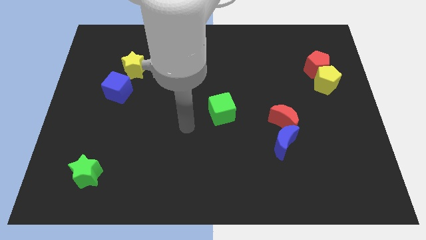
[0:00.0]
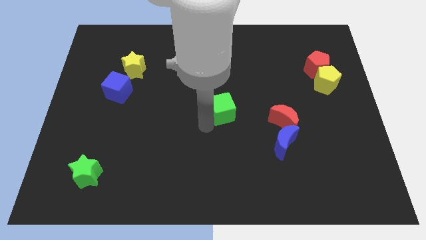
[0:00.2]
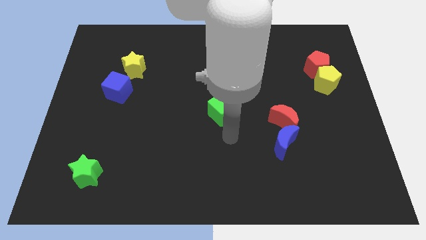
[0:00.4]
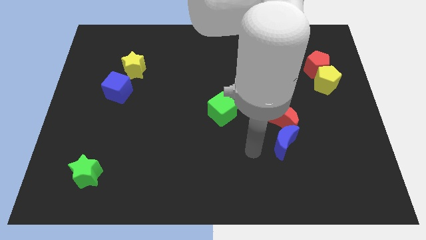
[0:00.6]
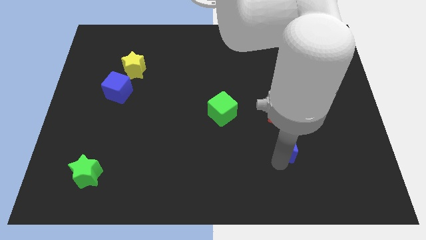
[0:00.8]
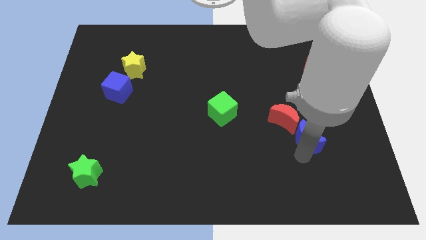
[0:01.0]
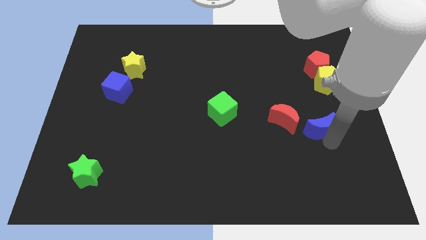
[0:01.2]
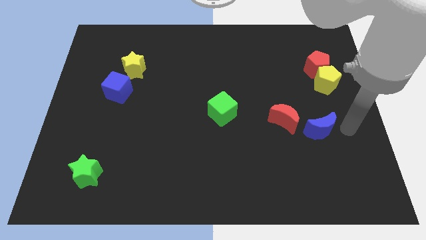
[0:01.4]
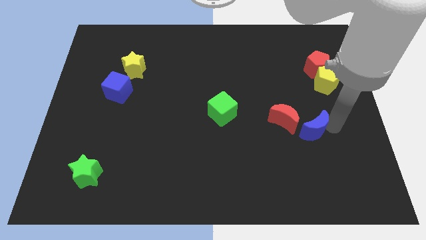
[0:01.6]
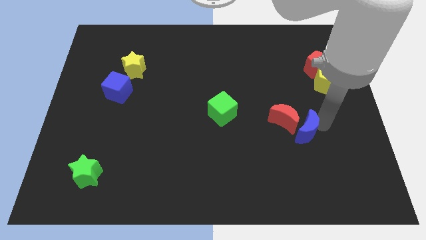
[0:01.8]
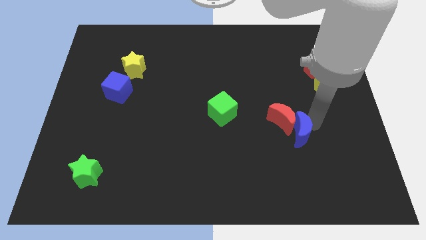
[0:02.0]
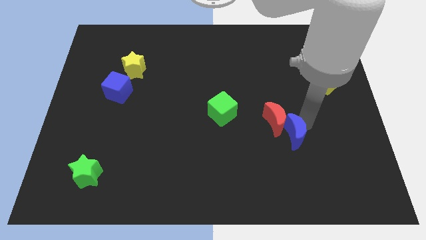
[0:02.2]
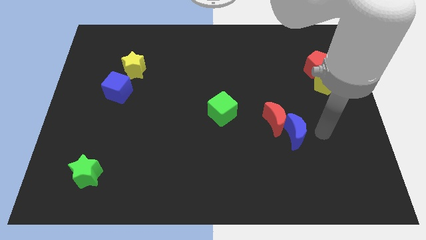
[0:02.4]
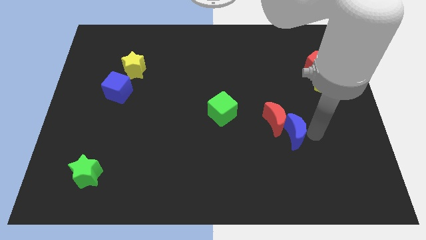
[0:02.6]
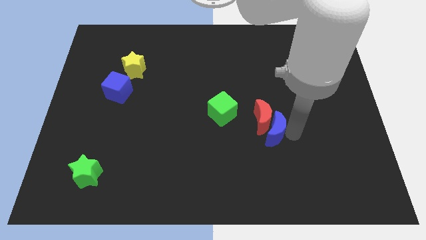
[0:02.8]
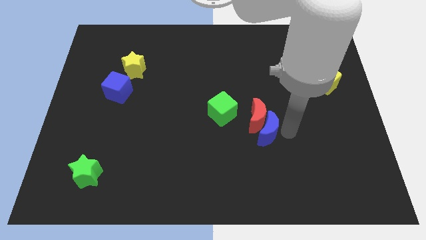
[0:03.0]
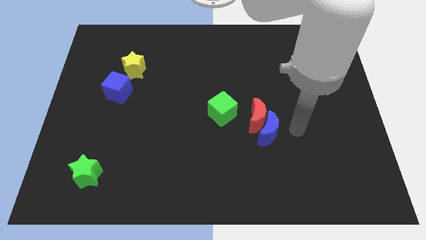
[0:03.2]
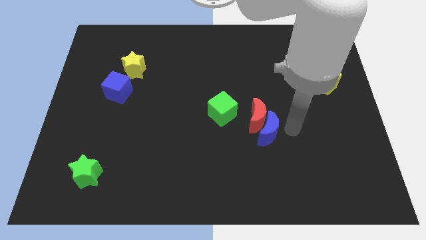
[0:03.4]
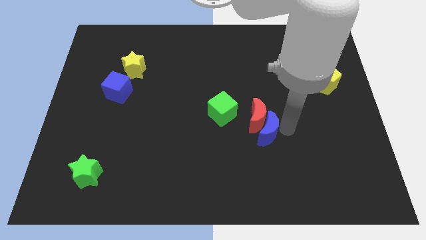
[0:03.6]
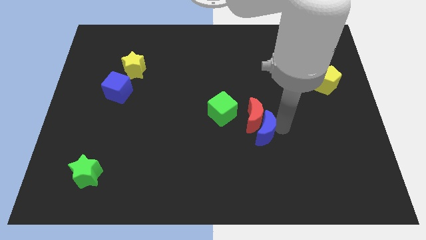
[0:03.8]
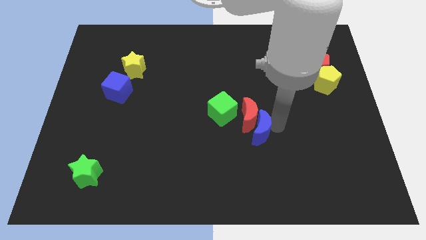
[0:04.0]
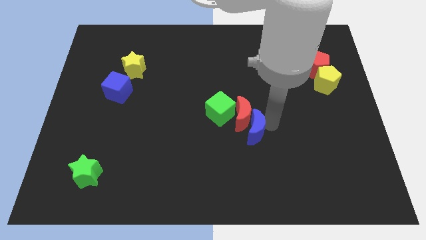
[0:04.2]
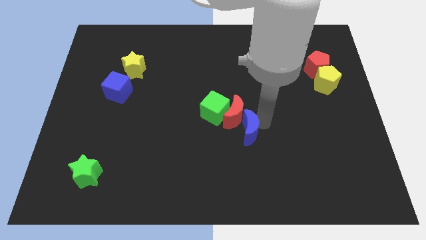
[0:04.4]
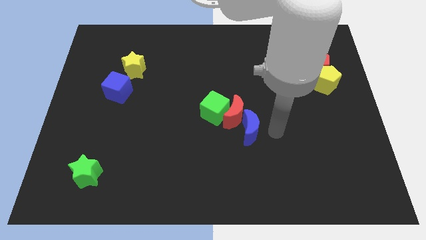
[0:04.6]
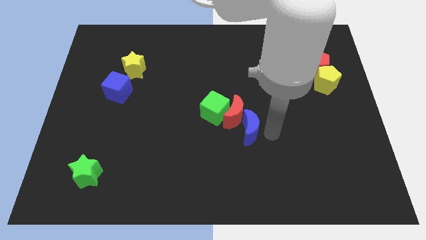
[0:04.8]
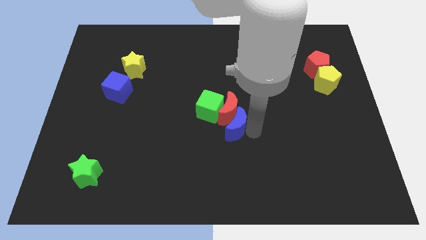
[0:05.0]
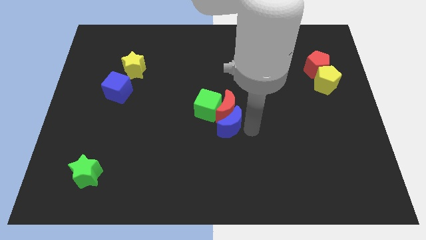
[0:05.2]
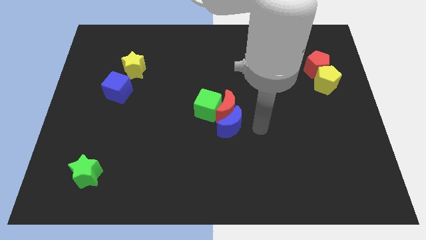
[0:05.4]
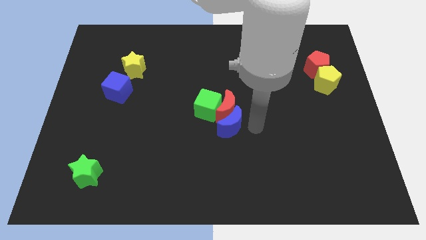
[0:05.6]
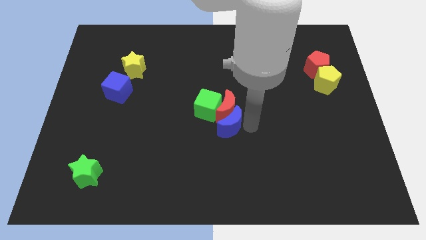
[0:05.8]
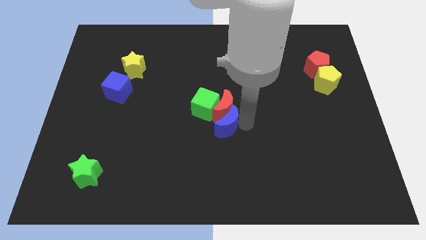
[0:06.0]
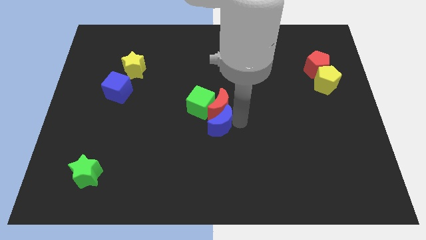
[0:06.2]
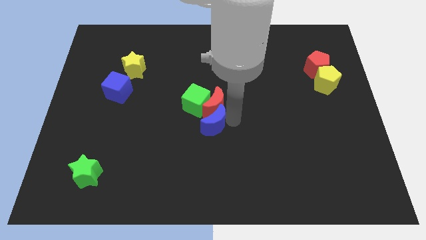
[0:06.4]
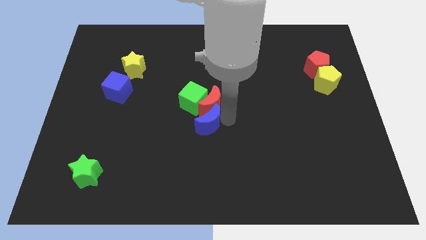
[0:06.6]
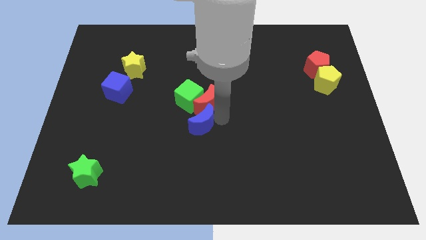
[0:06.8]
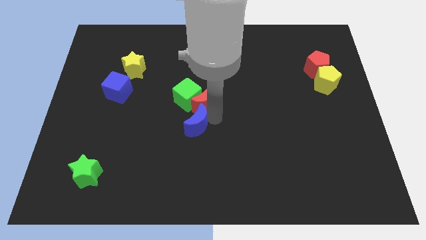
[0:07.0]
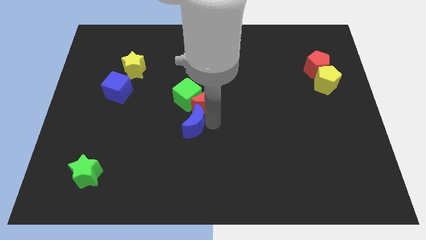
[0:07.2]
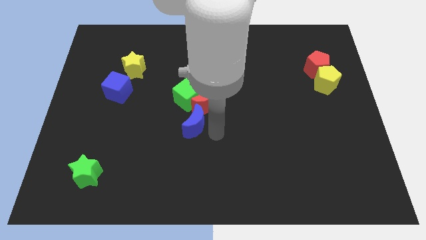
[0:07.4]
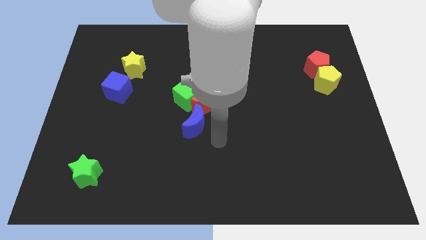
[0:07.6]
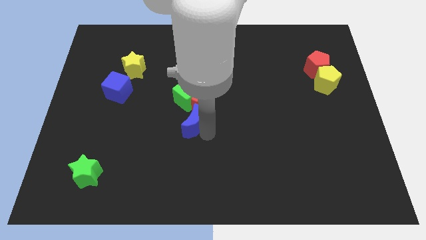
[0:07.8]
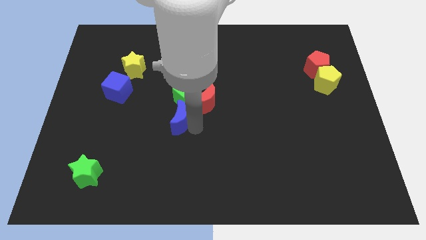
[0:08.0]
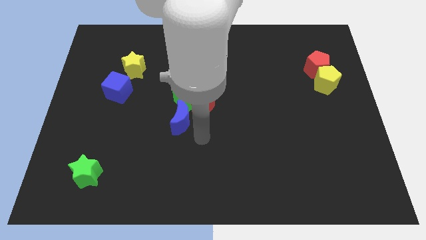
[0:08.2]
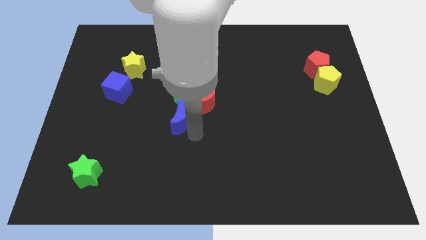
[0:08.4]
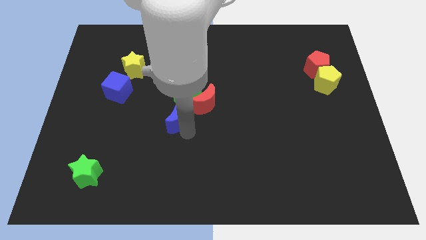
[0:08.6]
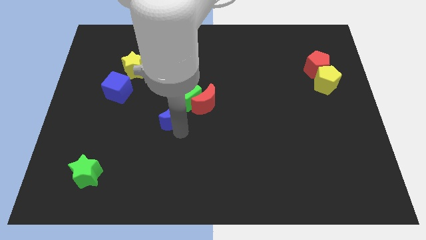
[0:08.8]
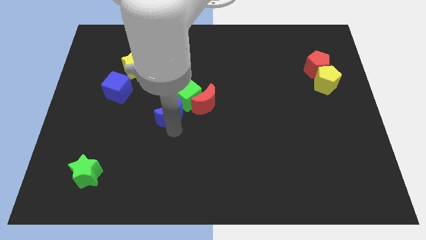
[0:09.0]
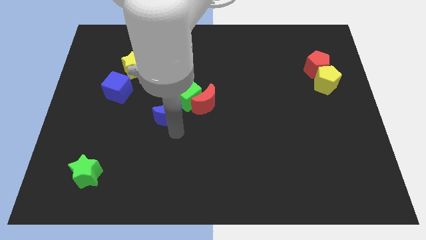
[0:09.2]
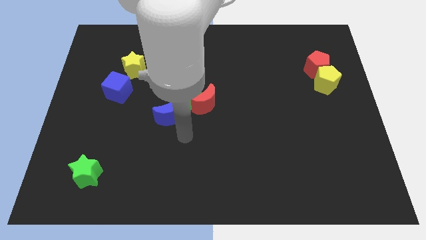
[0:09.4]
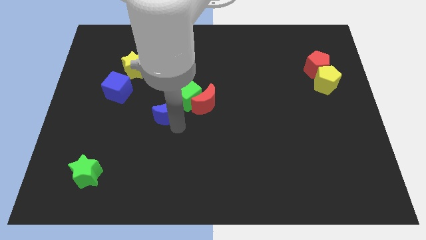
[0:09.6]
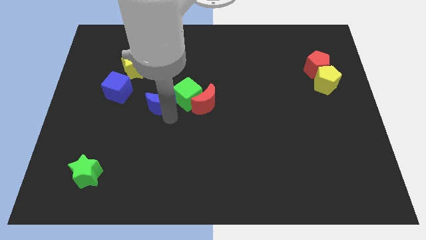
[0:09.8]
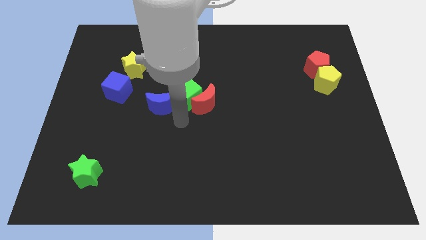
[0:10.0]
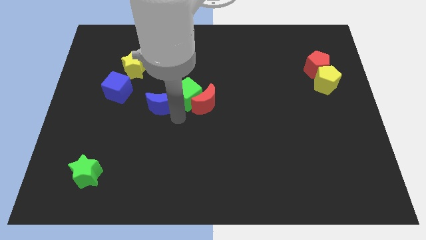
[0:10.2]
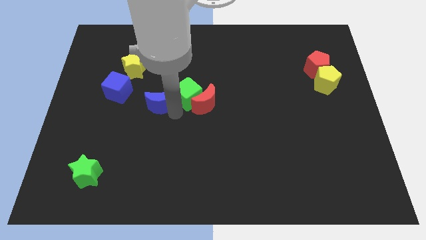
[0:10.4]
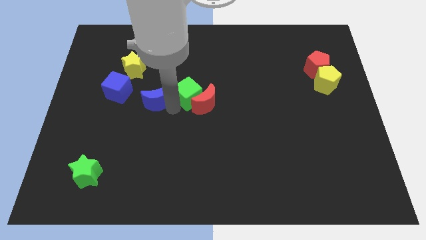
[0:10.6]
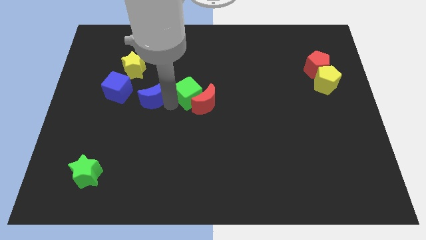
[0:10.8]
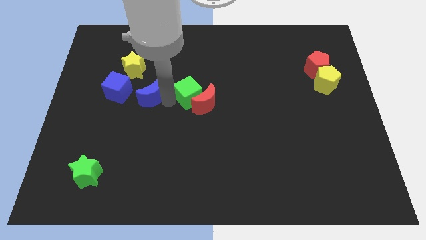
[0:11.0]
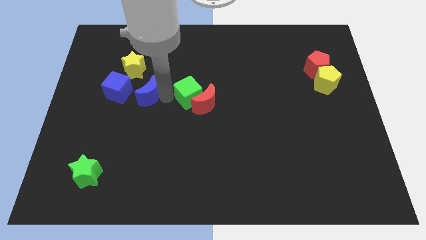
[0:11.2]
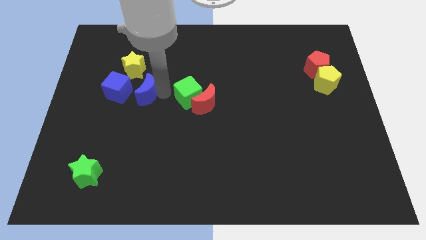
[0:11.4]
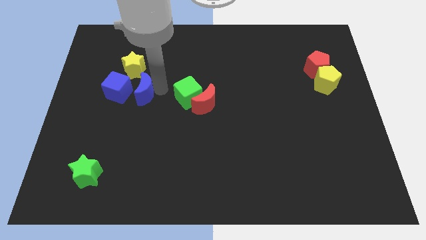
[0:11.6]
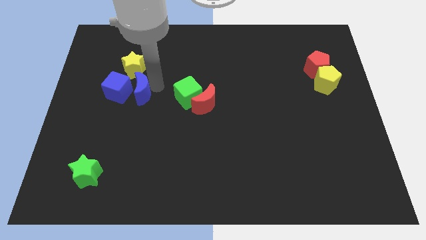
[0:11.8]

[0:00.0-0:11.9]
slide the blue moon next to the blue cube

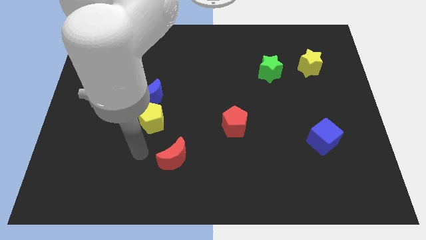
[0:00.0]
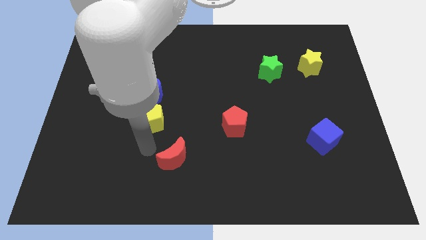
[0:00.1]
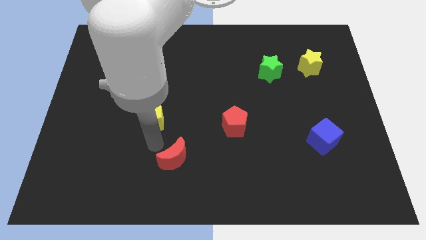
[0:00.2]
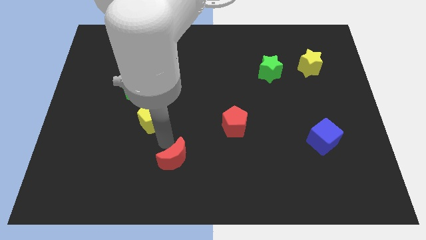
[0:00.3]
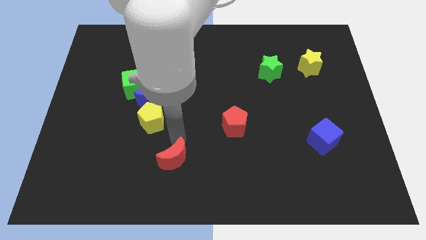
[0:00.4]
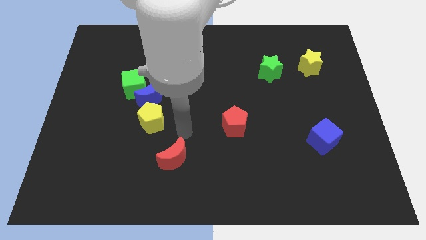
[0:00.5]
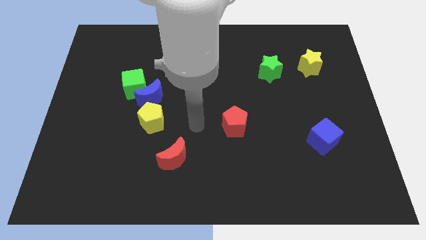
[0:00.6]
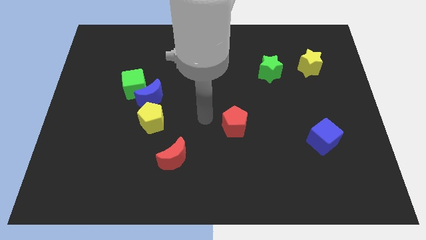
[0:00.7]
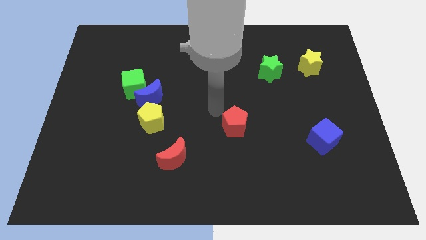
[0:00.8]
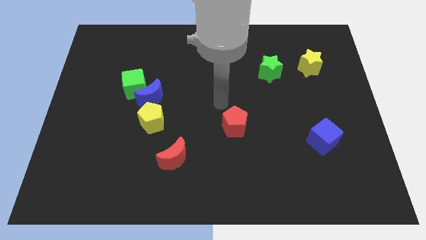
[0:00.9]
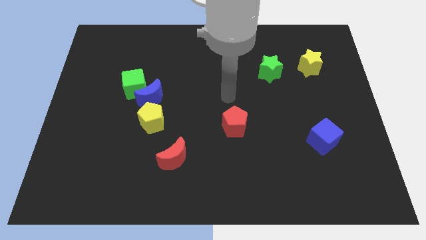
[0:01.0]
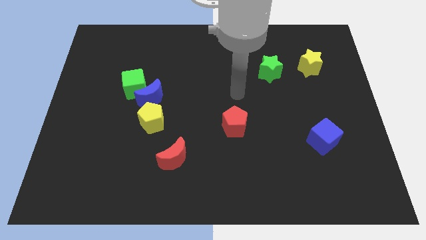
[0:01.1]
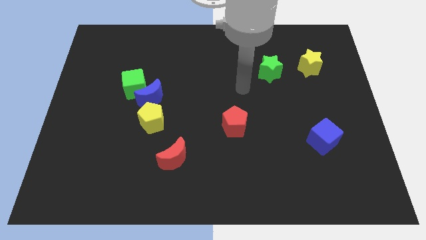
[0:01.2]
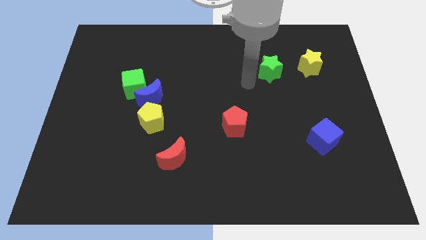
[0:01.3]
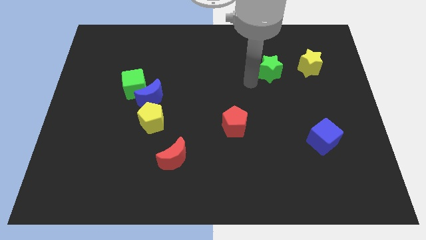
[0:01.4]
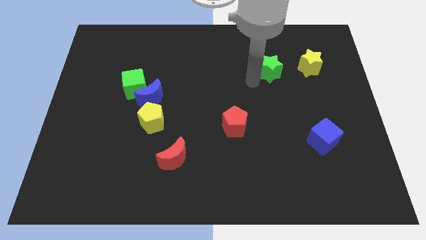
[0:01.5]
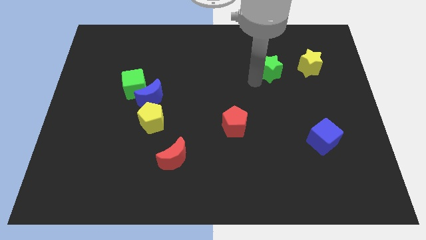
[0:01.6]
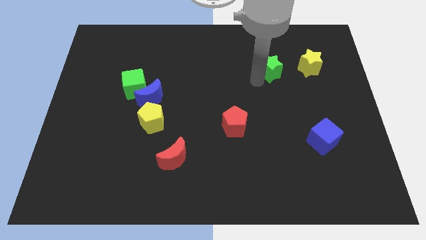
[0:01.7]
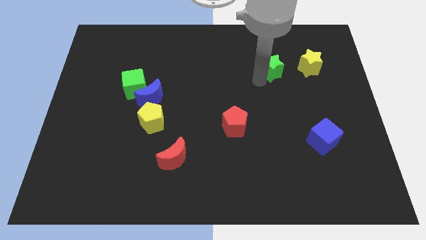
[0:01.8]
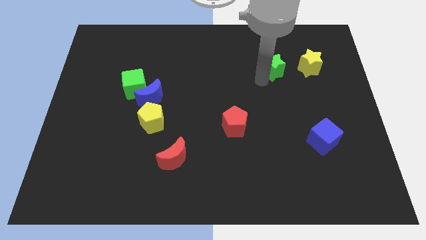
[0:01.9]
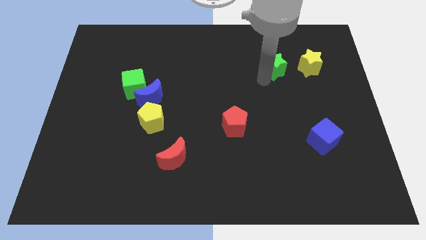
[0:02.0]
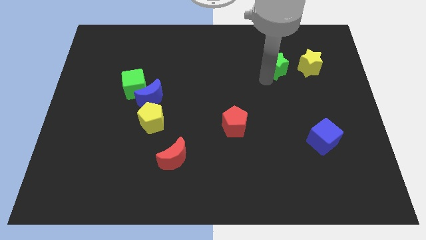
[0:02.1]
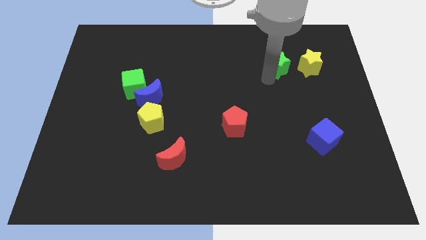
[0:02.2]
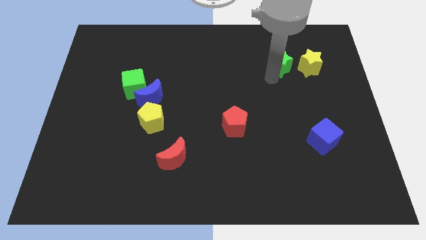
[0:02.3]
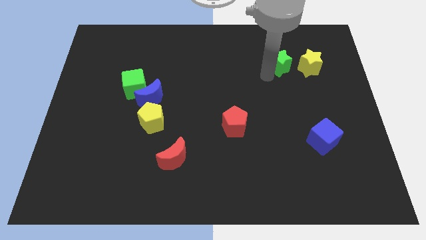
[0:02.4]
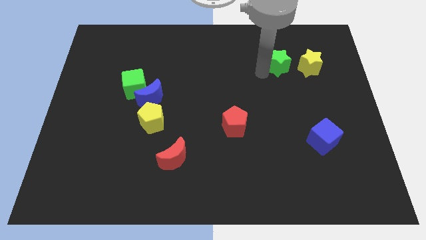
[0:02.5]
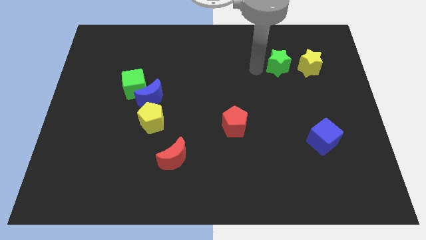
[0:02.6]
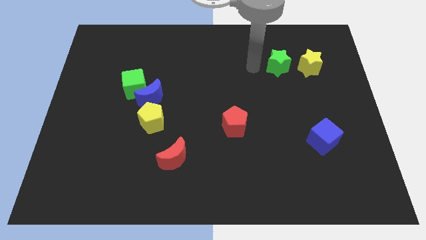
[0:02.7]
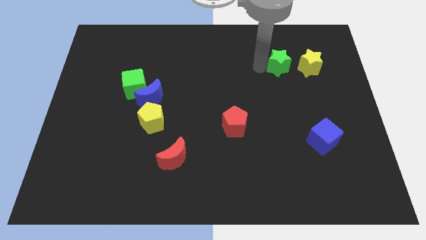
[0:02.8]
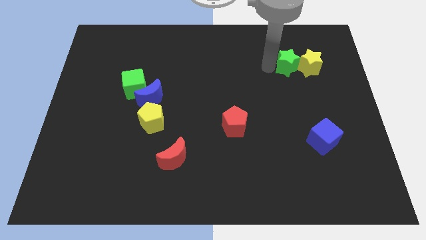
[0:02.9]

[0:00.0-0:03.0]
move the green star close to the yellow star
